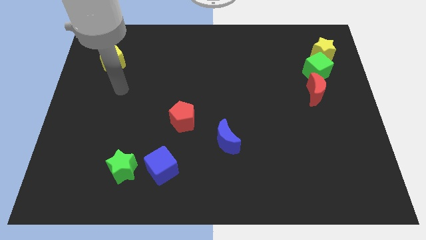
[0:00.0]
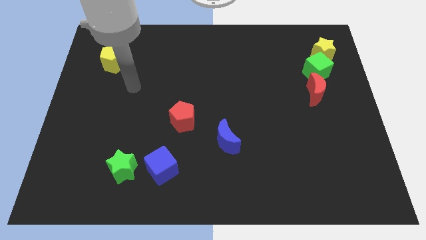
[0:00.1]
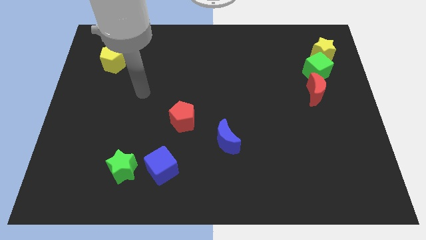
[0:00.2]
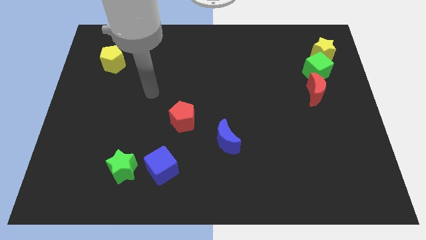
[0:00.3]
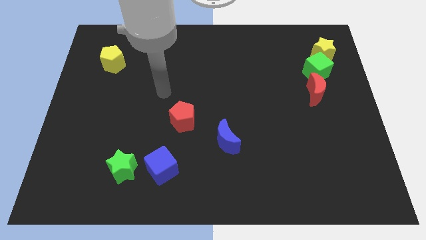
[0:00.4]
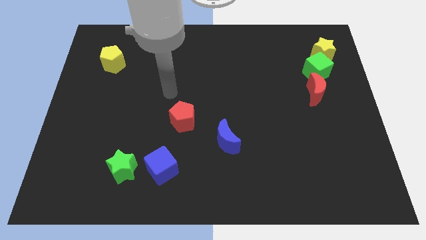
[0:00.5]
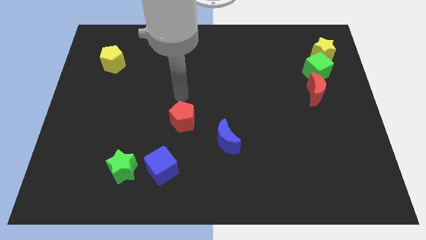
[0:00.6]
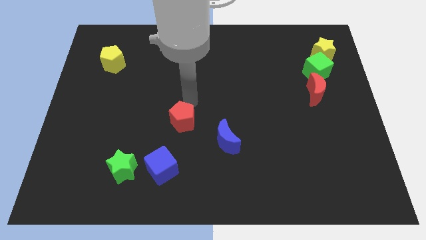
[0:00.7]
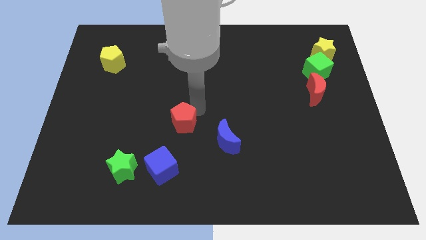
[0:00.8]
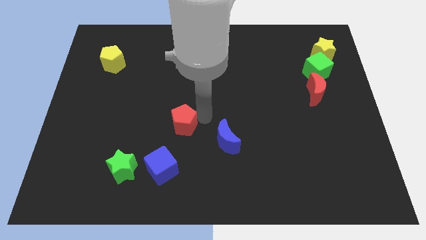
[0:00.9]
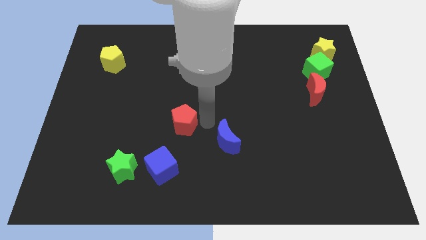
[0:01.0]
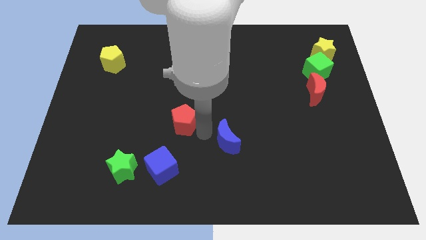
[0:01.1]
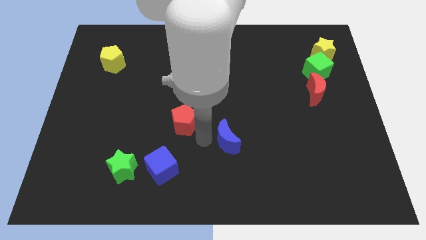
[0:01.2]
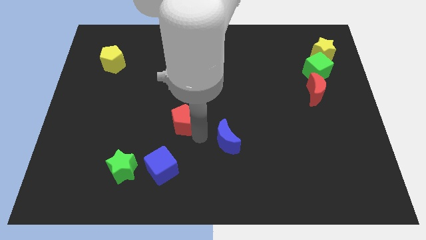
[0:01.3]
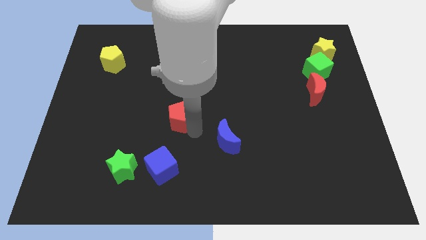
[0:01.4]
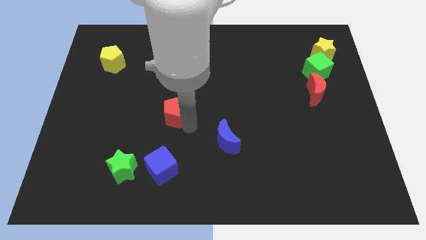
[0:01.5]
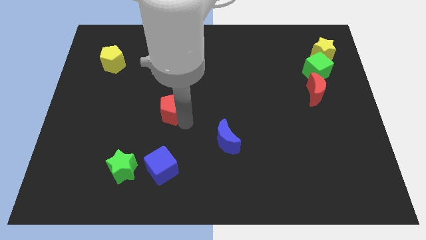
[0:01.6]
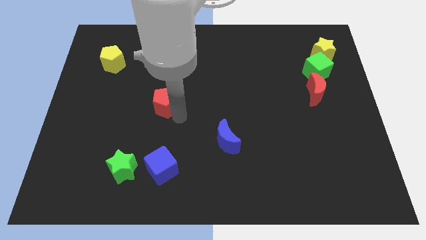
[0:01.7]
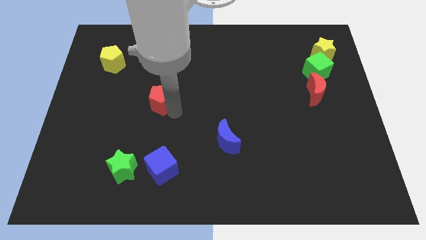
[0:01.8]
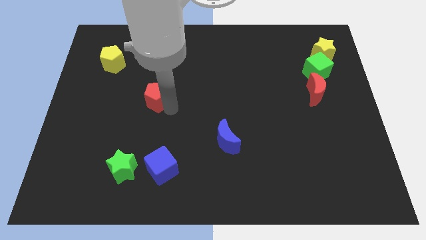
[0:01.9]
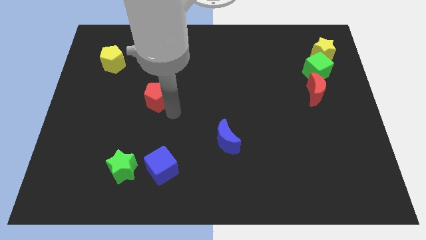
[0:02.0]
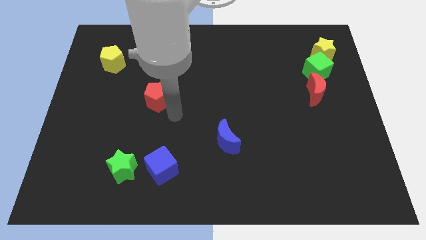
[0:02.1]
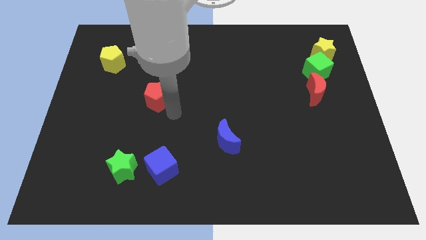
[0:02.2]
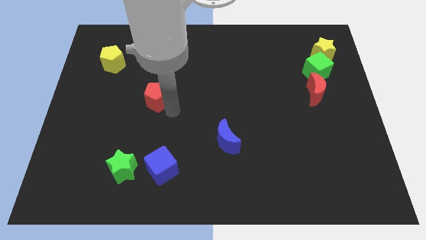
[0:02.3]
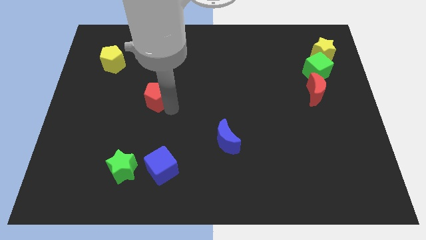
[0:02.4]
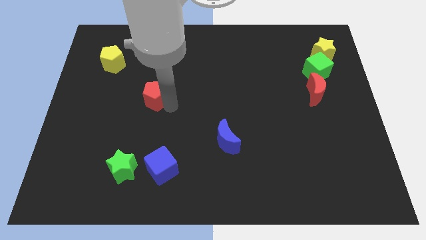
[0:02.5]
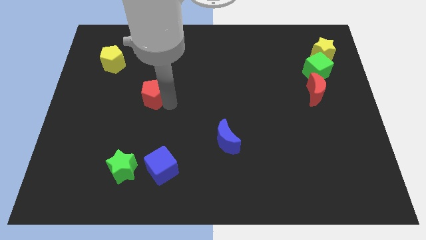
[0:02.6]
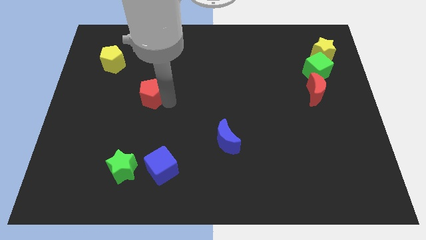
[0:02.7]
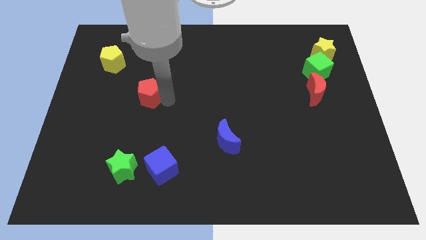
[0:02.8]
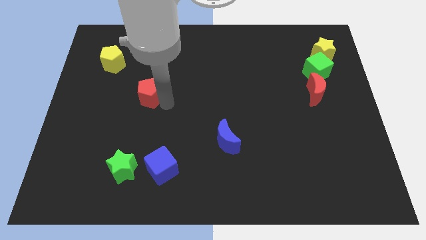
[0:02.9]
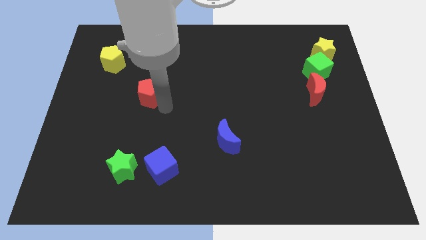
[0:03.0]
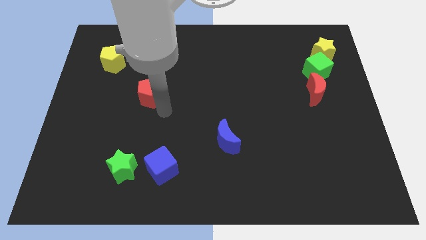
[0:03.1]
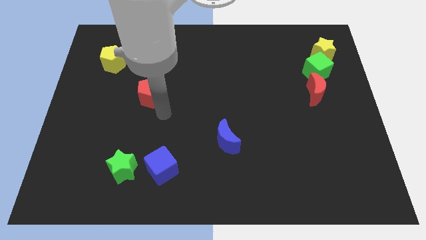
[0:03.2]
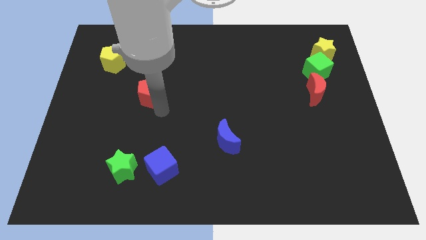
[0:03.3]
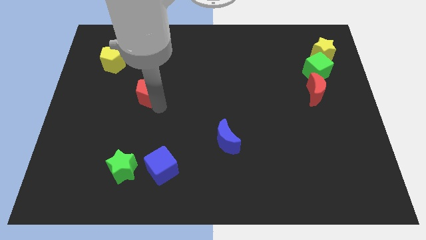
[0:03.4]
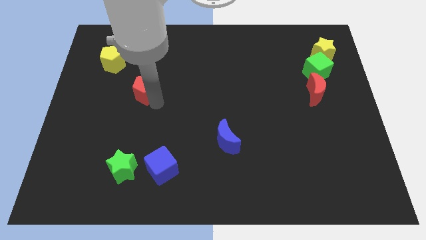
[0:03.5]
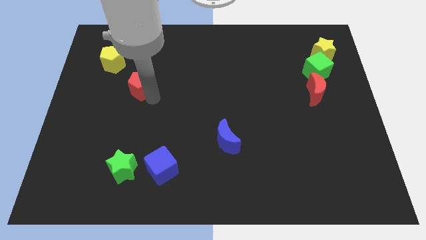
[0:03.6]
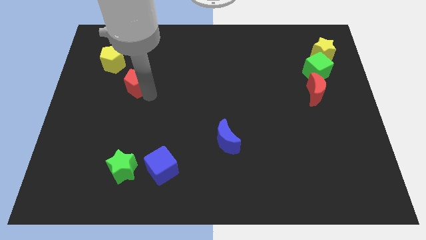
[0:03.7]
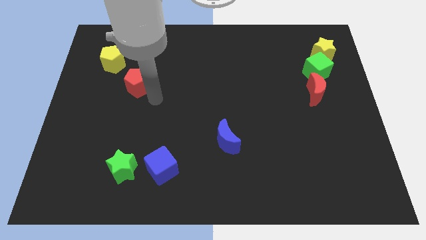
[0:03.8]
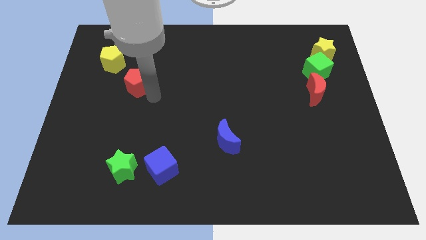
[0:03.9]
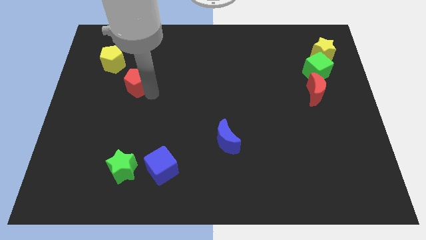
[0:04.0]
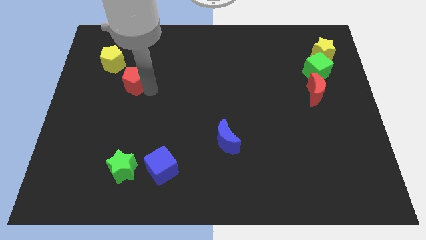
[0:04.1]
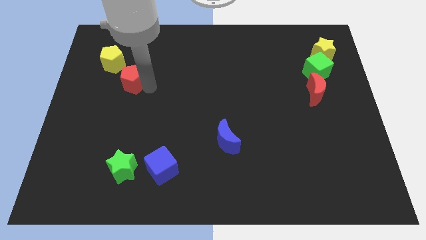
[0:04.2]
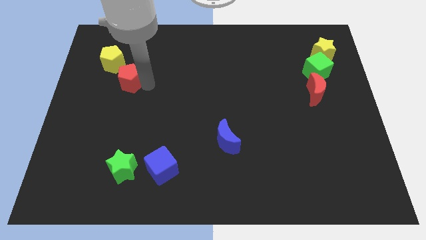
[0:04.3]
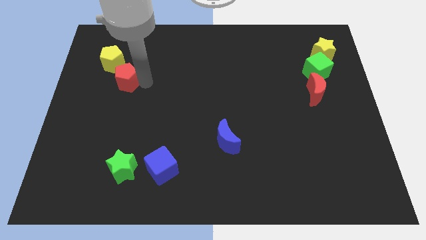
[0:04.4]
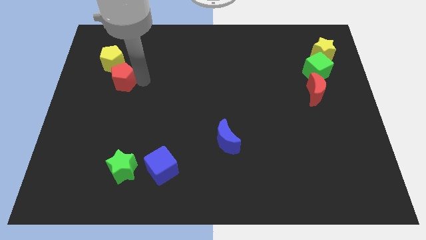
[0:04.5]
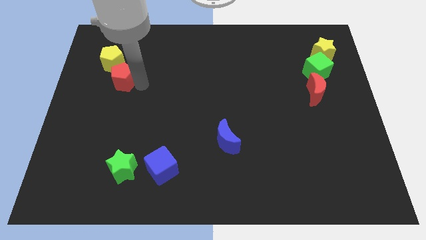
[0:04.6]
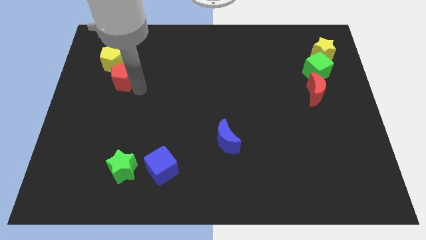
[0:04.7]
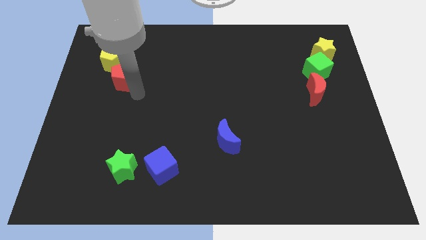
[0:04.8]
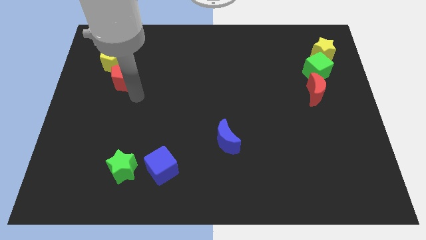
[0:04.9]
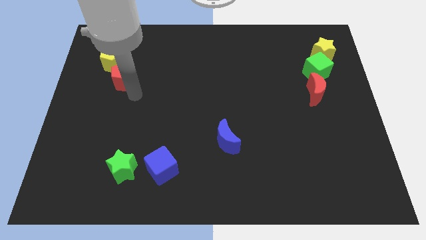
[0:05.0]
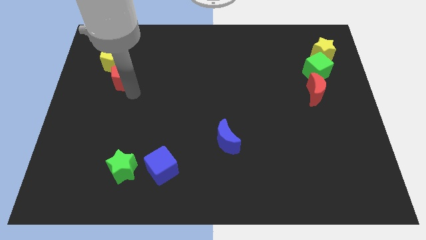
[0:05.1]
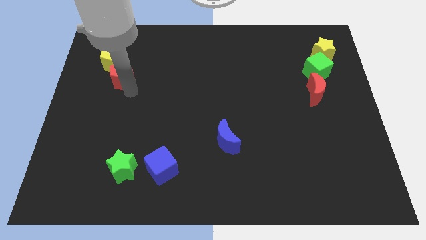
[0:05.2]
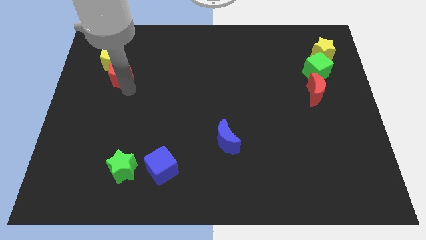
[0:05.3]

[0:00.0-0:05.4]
push the red pentagon next to the yellow pentagon

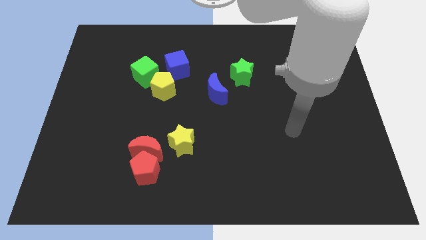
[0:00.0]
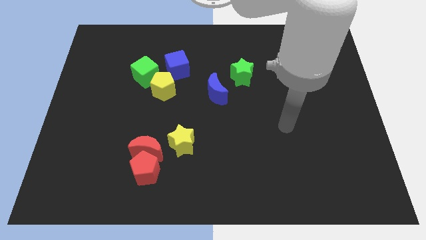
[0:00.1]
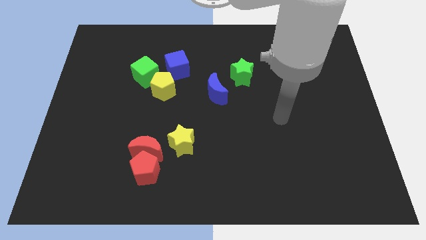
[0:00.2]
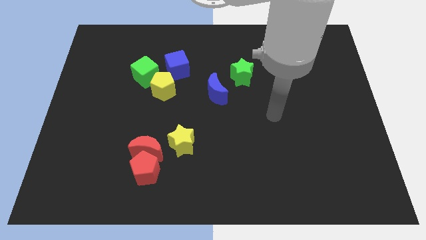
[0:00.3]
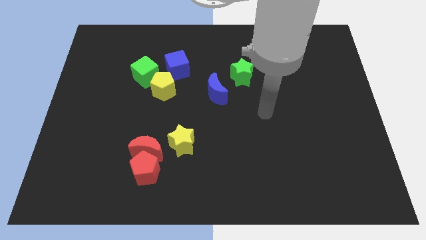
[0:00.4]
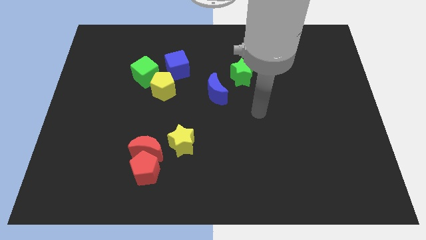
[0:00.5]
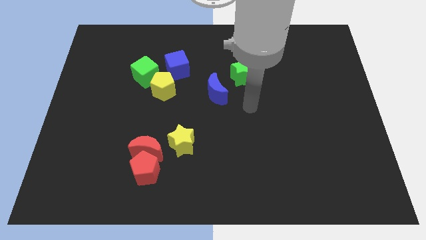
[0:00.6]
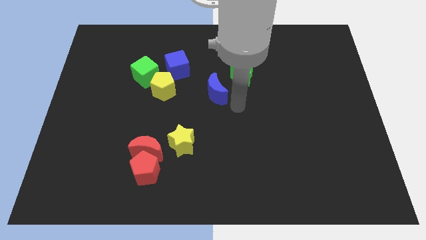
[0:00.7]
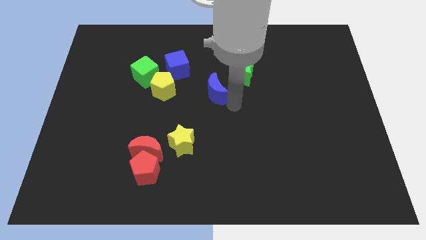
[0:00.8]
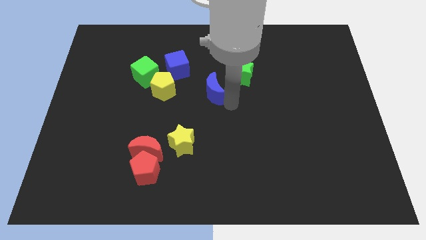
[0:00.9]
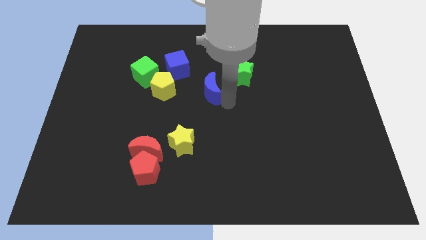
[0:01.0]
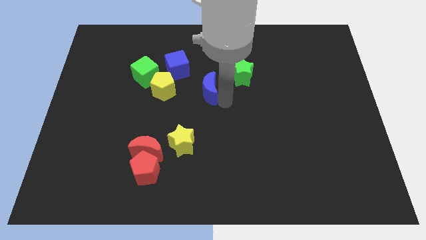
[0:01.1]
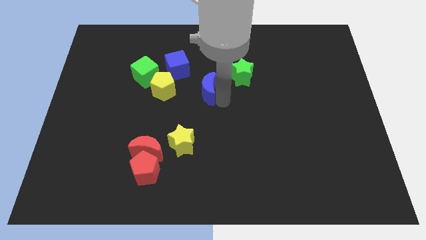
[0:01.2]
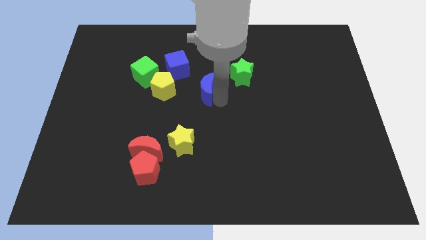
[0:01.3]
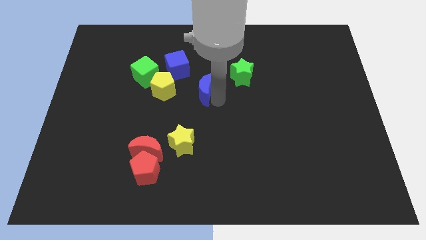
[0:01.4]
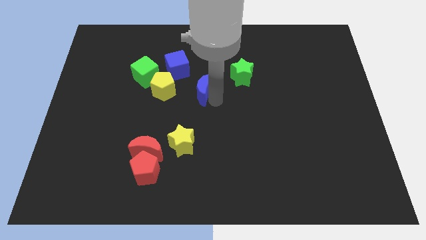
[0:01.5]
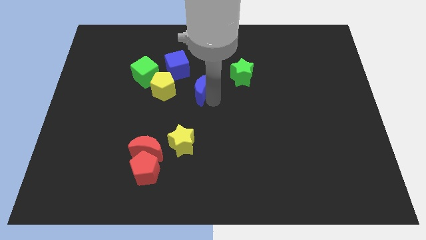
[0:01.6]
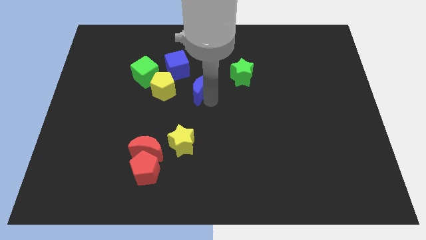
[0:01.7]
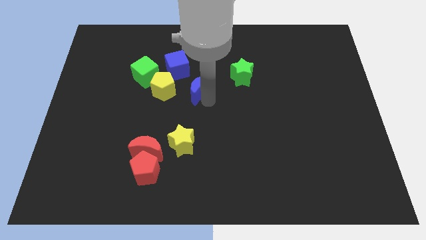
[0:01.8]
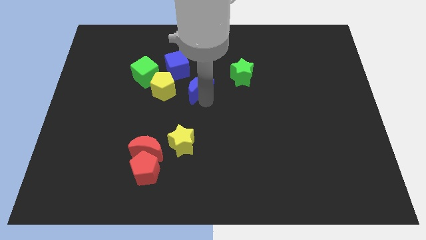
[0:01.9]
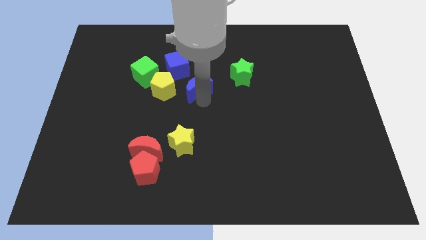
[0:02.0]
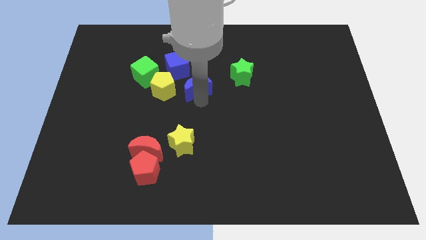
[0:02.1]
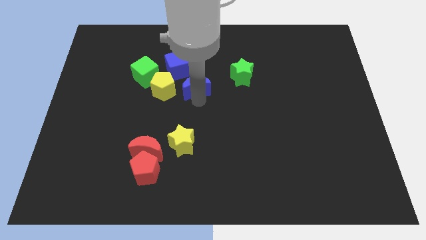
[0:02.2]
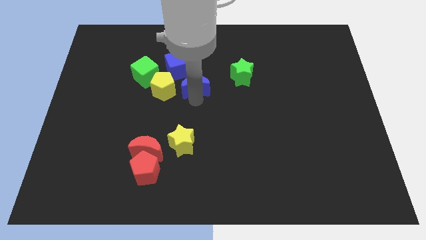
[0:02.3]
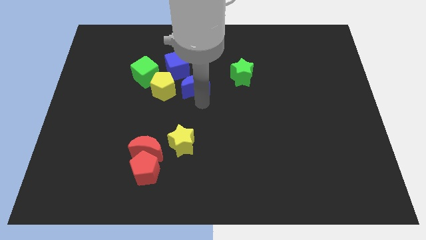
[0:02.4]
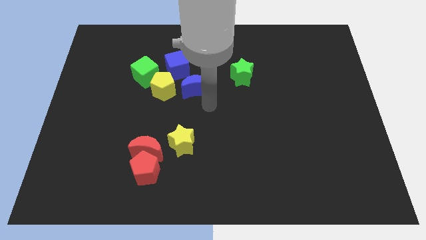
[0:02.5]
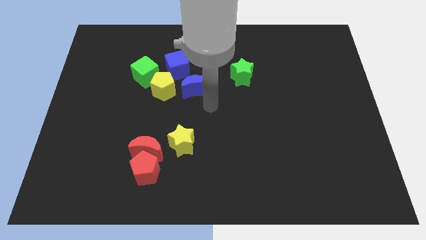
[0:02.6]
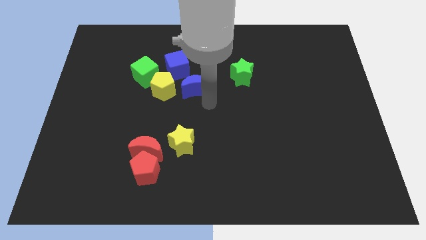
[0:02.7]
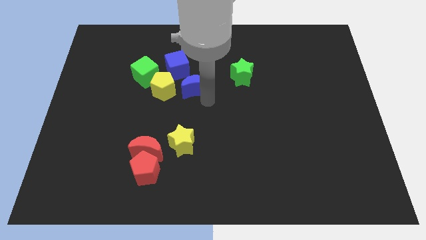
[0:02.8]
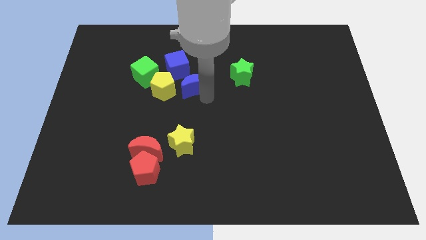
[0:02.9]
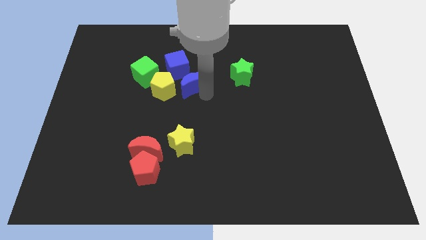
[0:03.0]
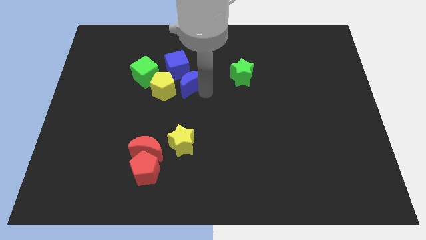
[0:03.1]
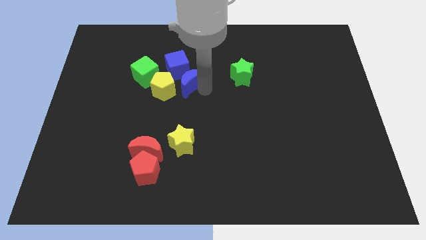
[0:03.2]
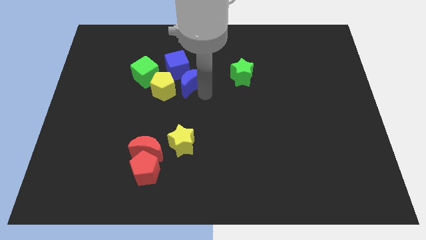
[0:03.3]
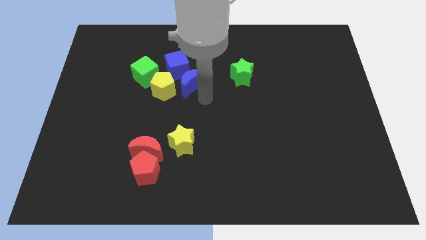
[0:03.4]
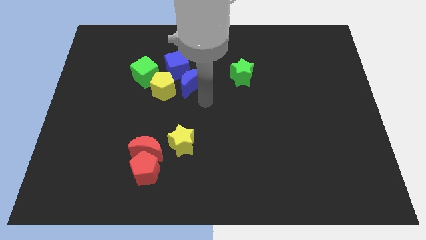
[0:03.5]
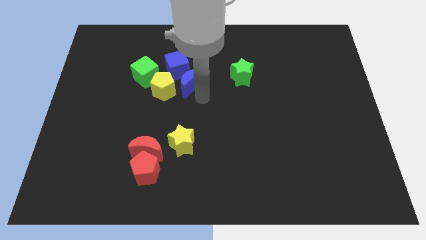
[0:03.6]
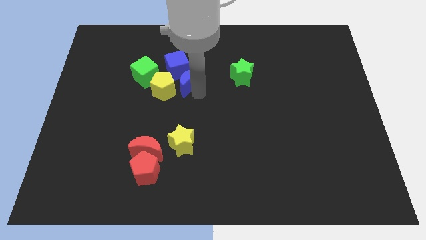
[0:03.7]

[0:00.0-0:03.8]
push the blue moon next to the blue cube
